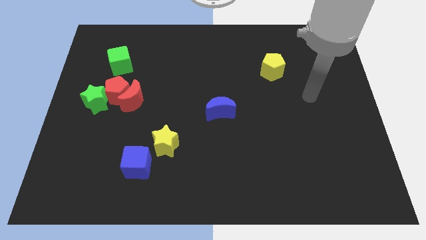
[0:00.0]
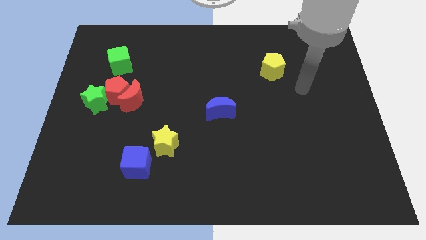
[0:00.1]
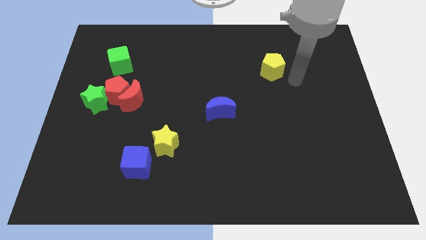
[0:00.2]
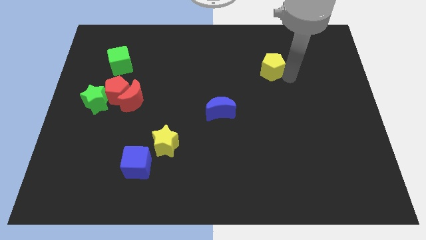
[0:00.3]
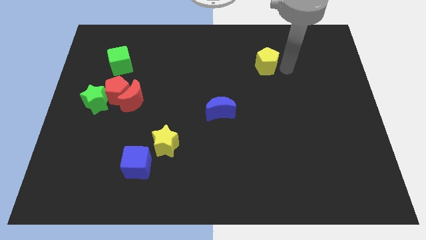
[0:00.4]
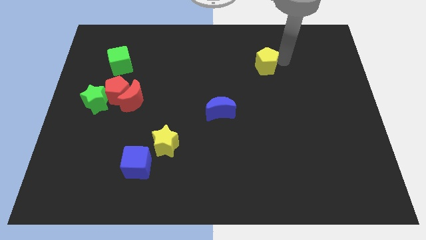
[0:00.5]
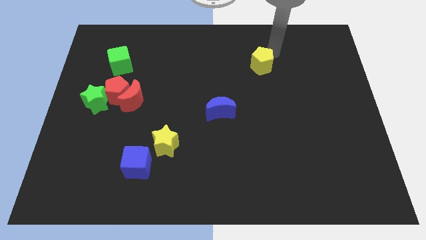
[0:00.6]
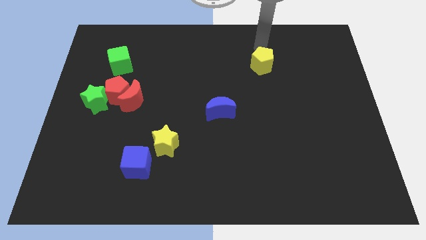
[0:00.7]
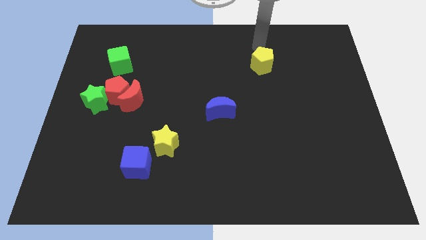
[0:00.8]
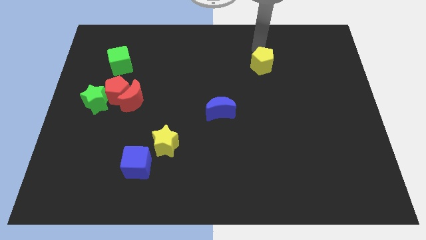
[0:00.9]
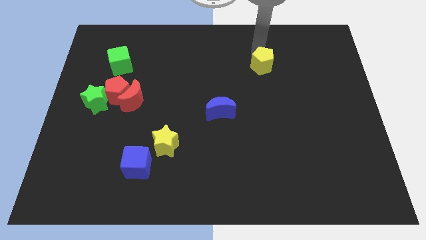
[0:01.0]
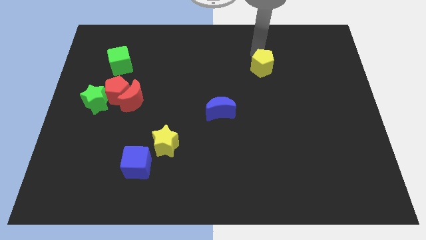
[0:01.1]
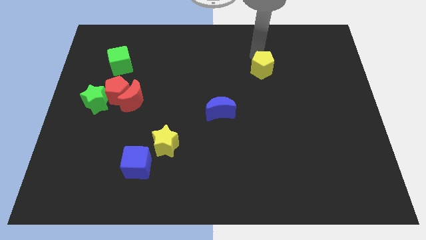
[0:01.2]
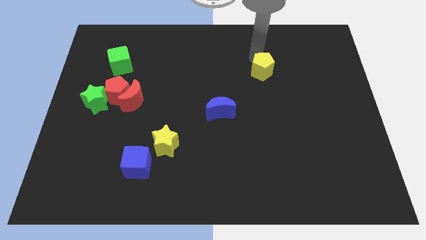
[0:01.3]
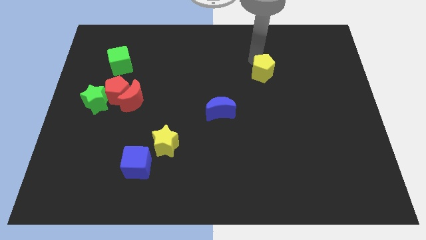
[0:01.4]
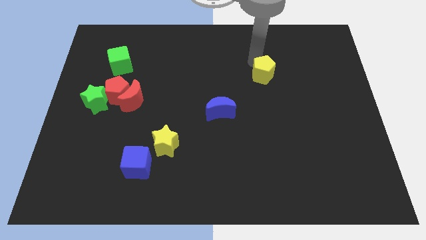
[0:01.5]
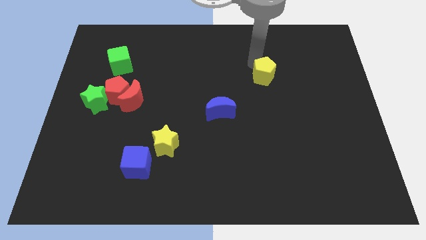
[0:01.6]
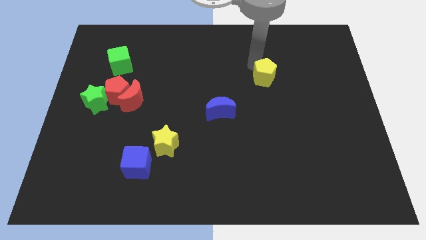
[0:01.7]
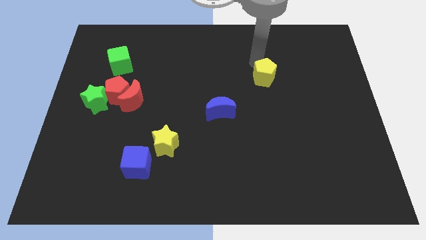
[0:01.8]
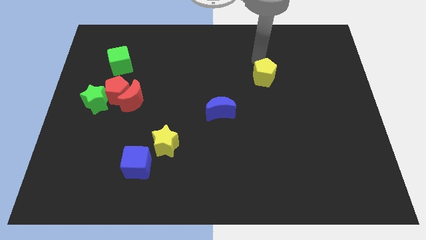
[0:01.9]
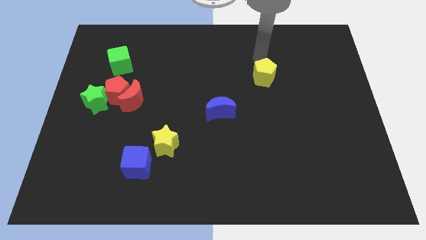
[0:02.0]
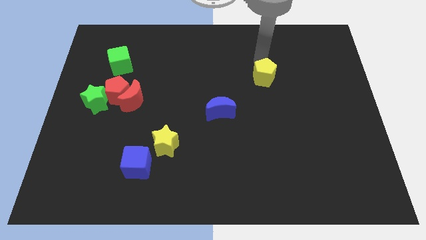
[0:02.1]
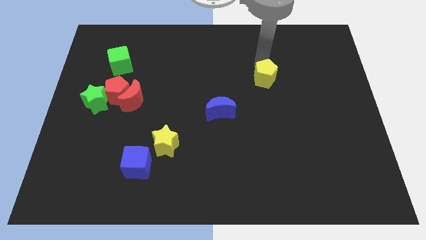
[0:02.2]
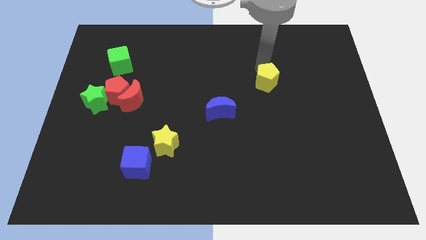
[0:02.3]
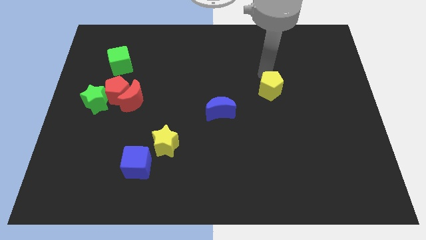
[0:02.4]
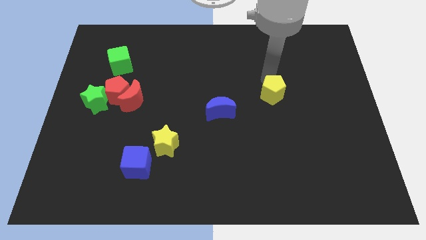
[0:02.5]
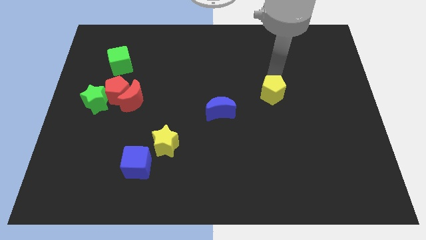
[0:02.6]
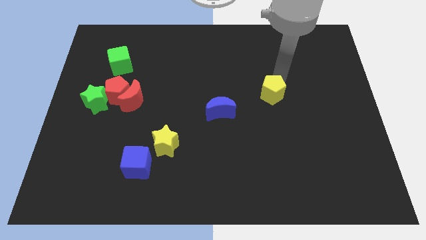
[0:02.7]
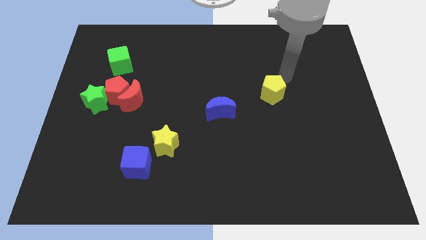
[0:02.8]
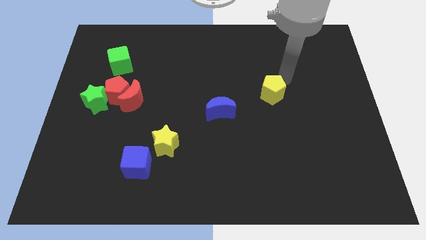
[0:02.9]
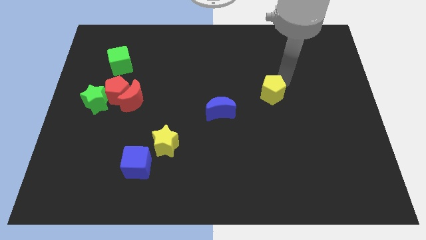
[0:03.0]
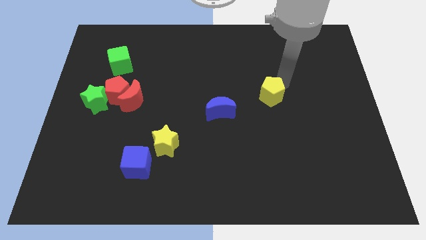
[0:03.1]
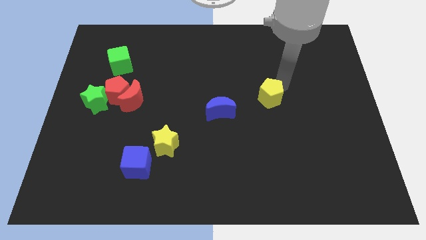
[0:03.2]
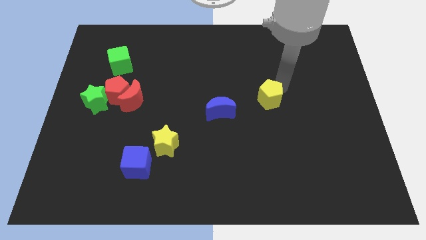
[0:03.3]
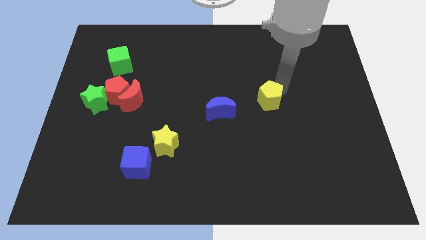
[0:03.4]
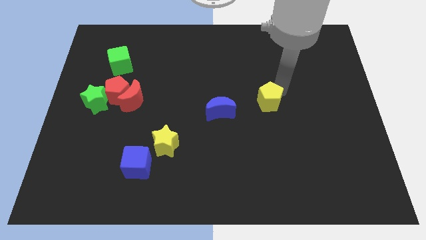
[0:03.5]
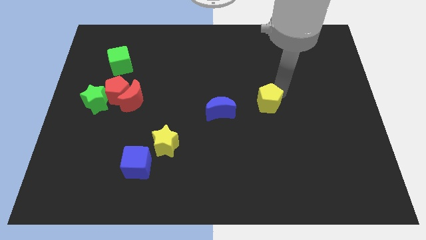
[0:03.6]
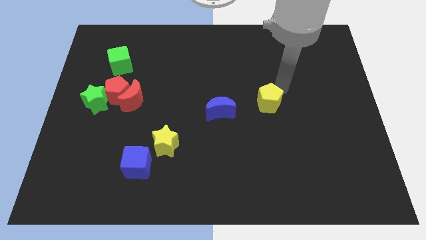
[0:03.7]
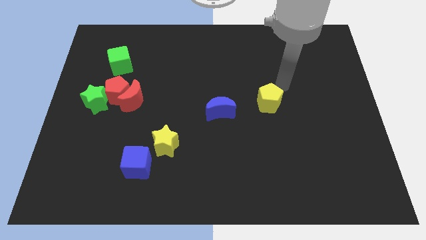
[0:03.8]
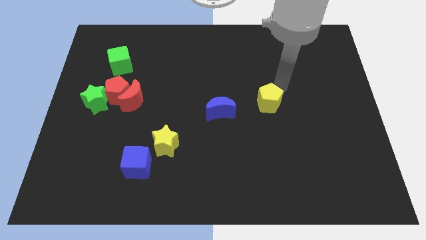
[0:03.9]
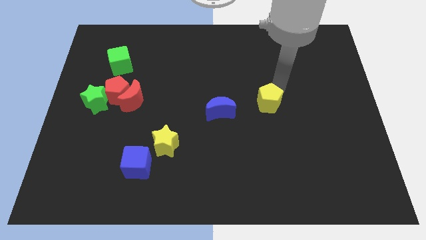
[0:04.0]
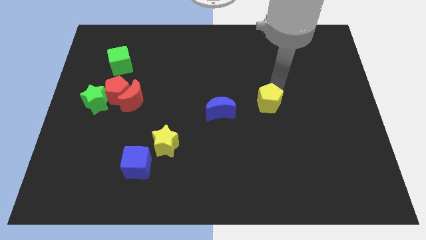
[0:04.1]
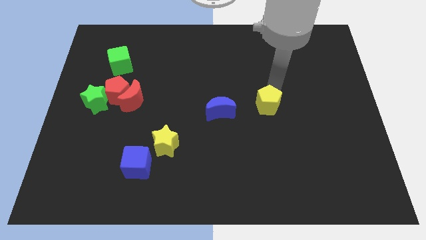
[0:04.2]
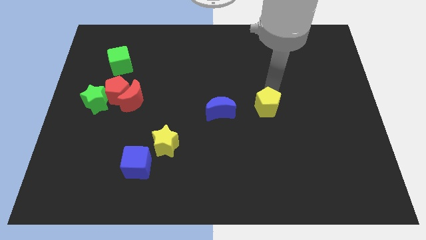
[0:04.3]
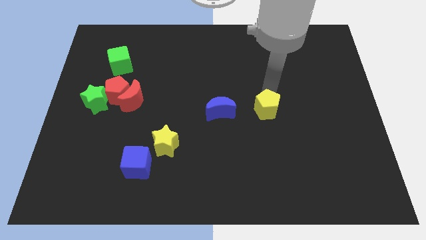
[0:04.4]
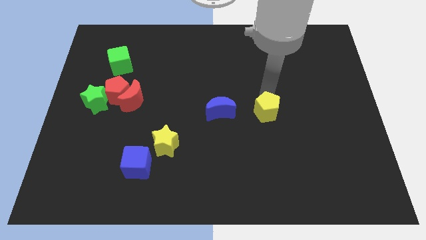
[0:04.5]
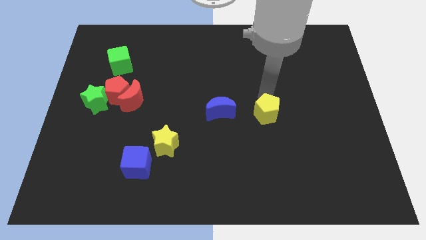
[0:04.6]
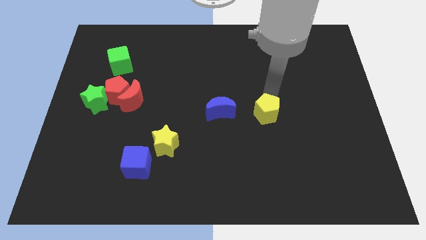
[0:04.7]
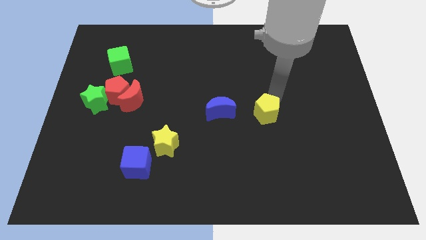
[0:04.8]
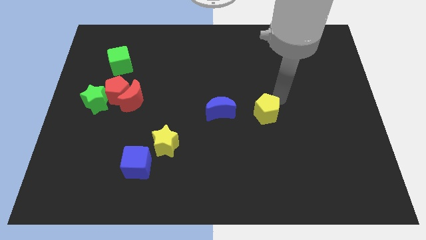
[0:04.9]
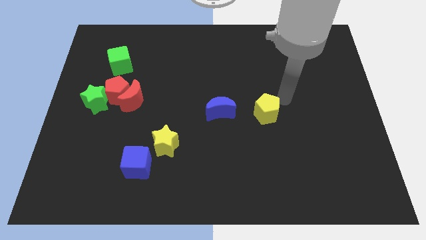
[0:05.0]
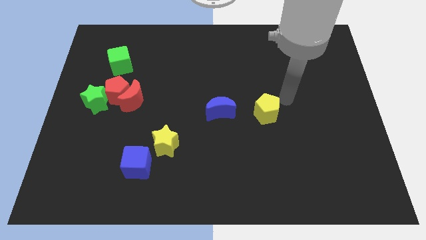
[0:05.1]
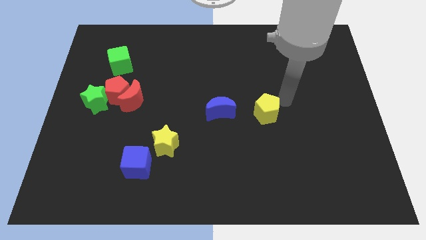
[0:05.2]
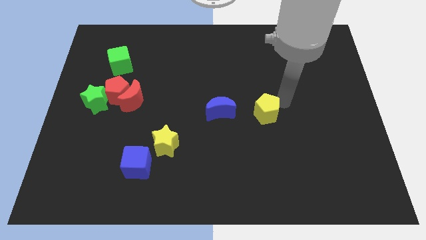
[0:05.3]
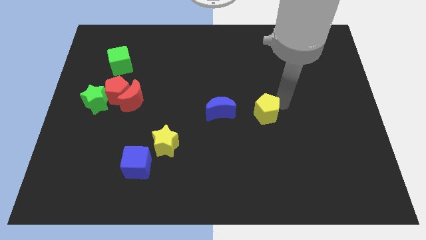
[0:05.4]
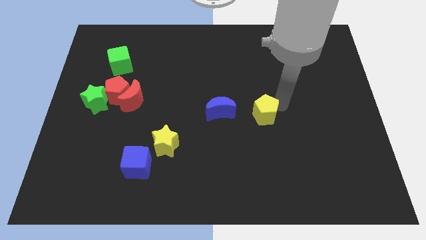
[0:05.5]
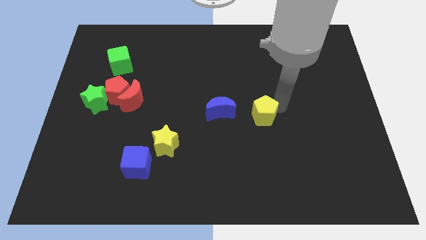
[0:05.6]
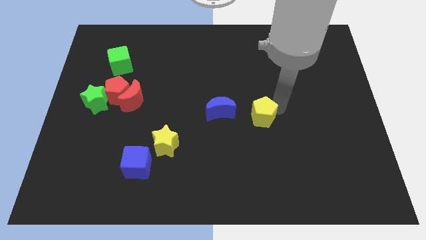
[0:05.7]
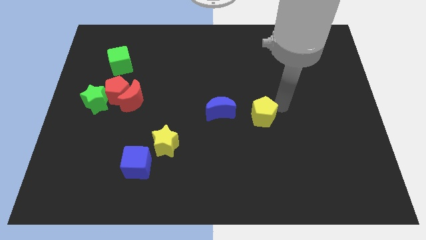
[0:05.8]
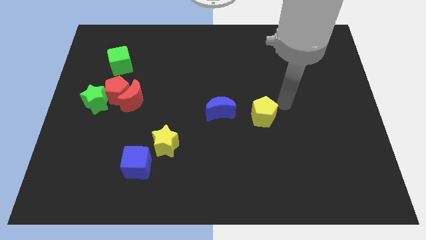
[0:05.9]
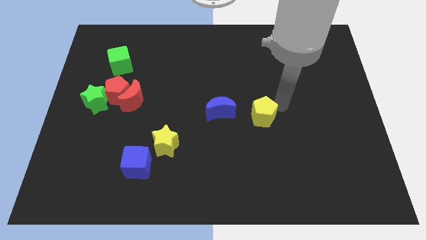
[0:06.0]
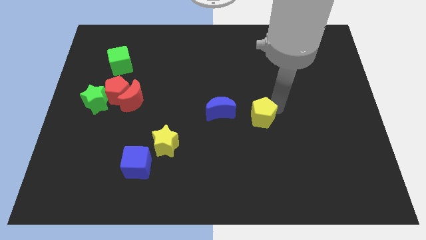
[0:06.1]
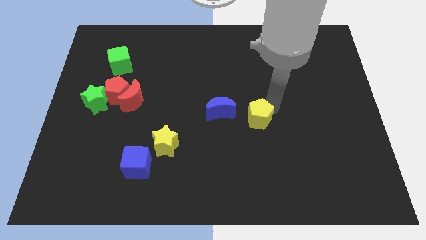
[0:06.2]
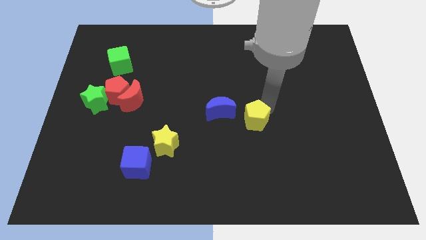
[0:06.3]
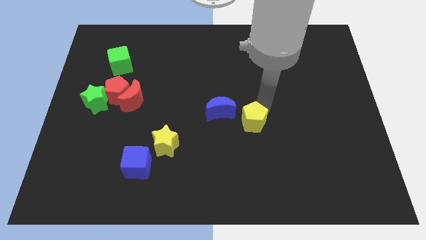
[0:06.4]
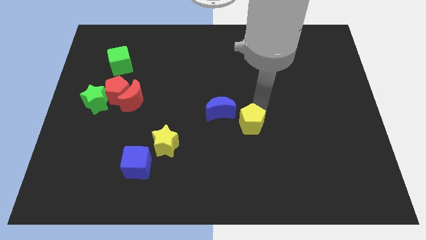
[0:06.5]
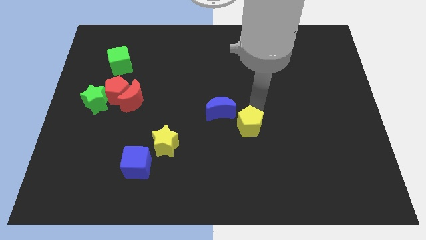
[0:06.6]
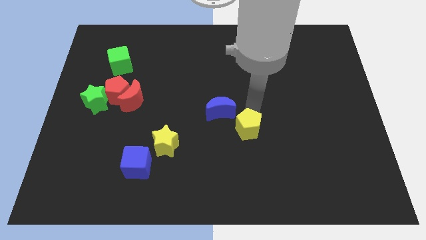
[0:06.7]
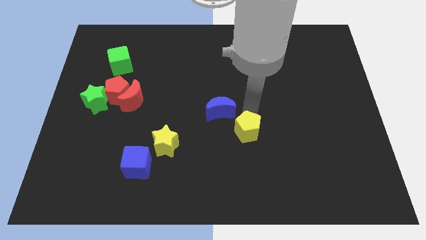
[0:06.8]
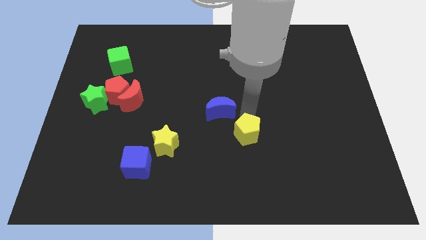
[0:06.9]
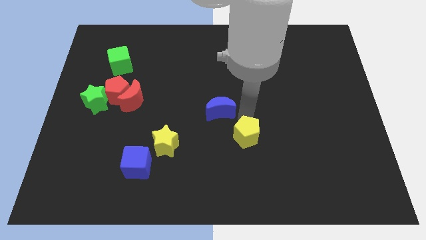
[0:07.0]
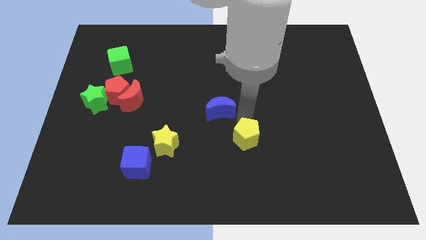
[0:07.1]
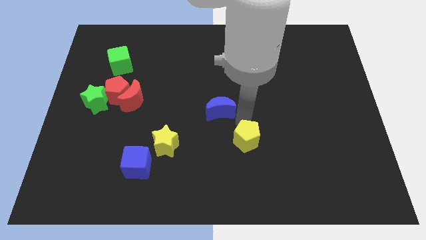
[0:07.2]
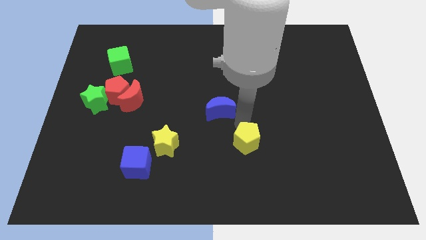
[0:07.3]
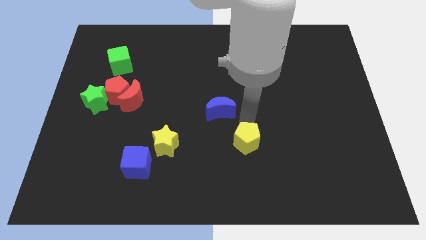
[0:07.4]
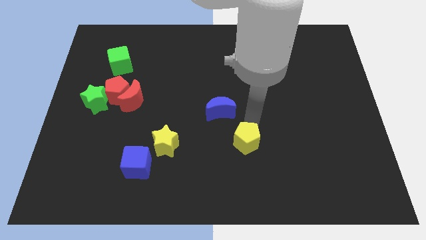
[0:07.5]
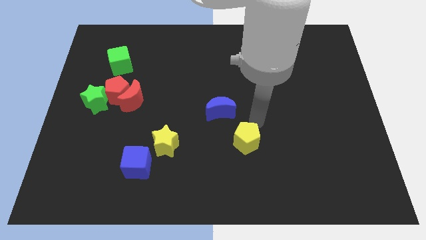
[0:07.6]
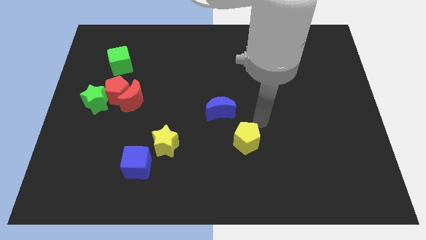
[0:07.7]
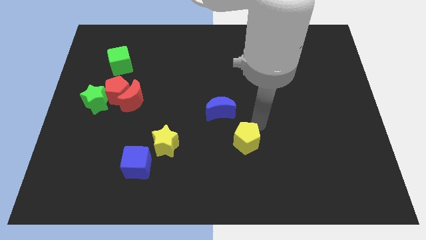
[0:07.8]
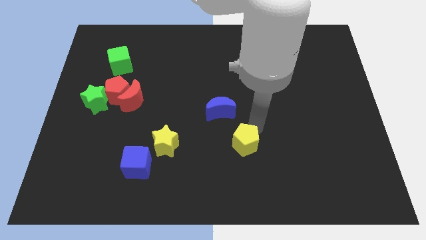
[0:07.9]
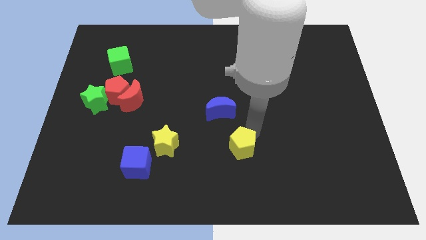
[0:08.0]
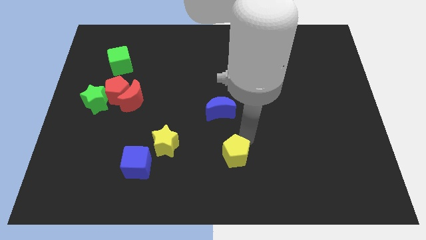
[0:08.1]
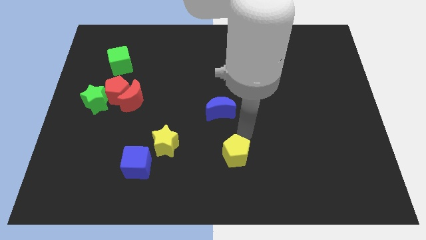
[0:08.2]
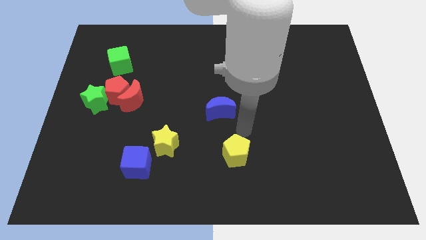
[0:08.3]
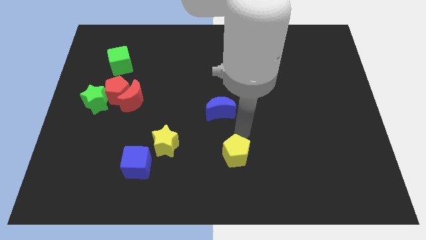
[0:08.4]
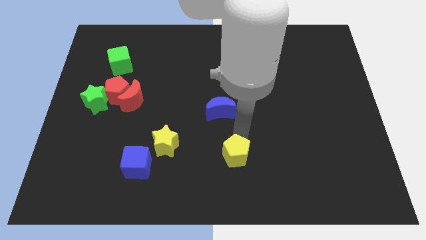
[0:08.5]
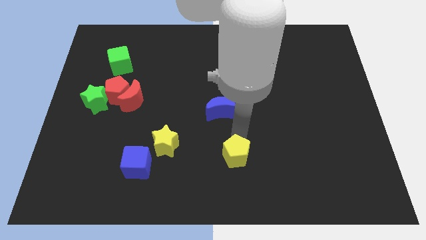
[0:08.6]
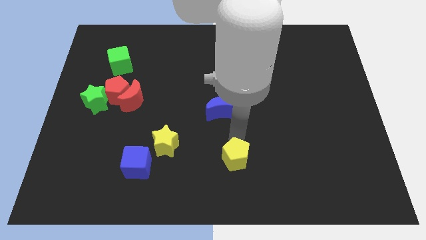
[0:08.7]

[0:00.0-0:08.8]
move the yellow pentagon to the bottom
